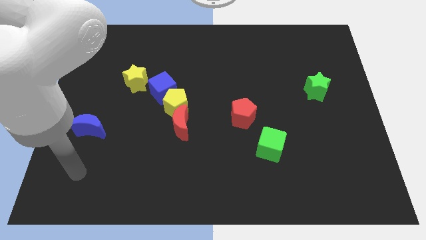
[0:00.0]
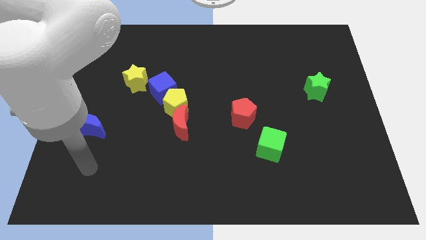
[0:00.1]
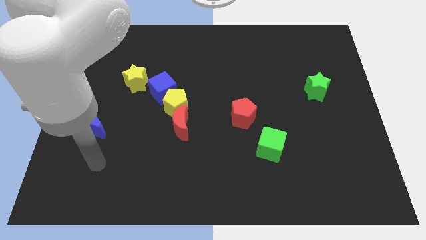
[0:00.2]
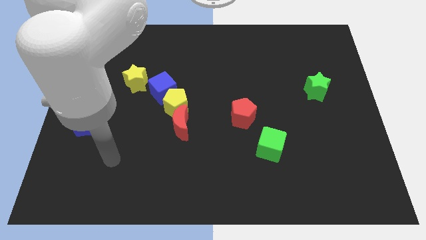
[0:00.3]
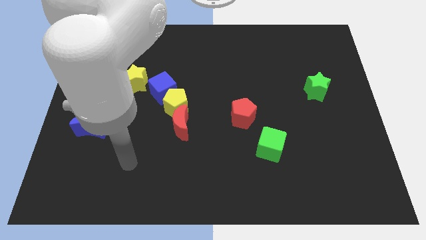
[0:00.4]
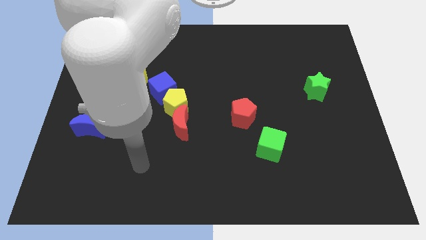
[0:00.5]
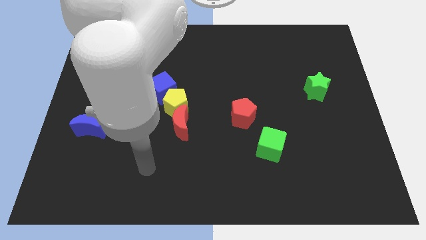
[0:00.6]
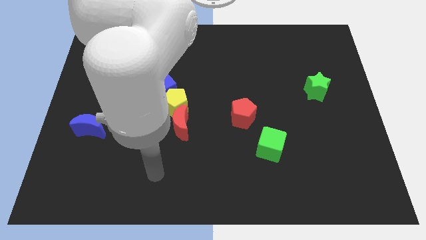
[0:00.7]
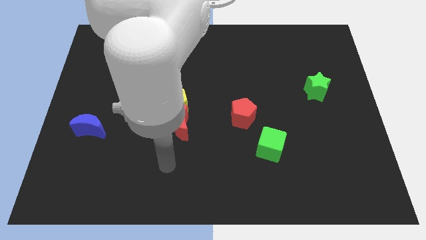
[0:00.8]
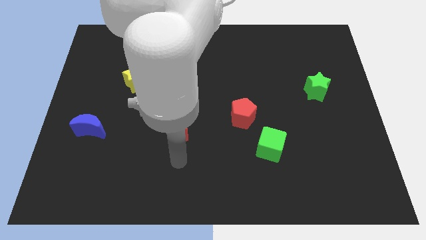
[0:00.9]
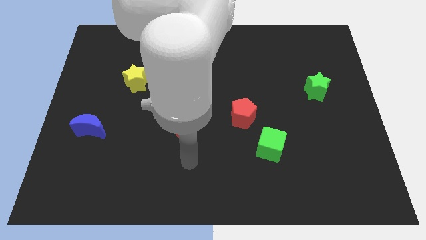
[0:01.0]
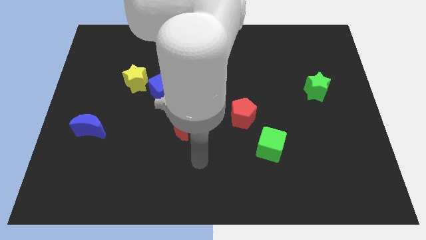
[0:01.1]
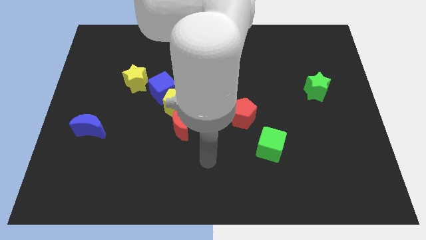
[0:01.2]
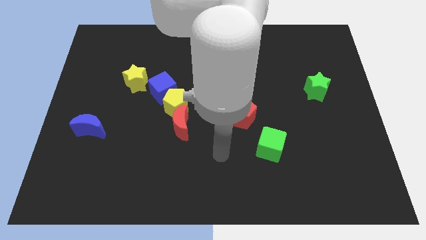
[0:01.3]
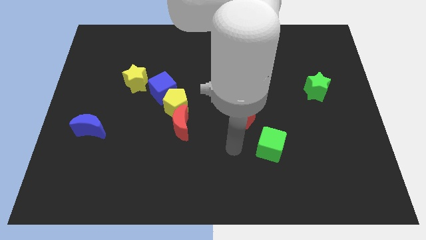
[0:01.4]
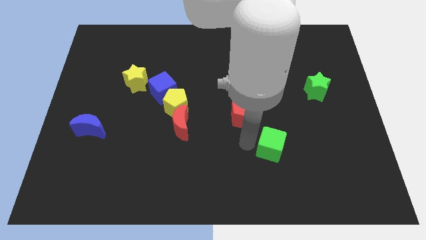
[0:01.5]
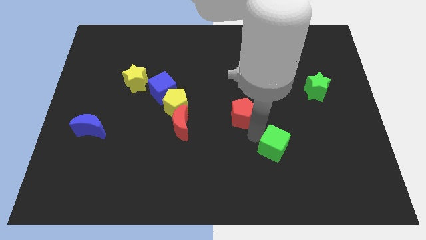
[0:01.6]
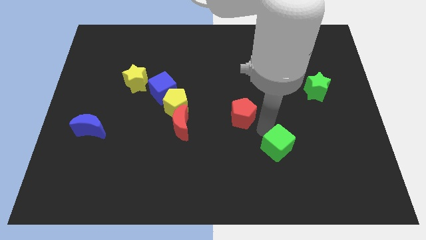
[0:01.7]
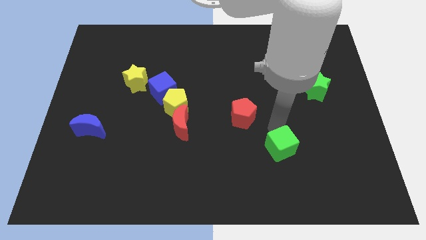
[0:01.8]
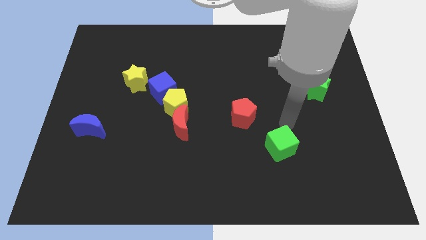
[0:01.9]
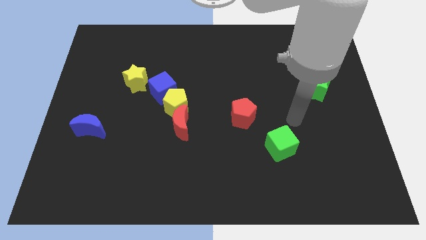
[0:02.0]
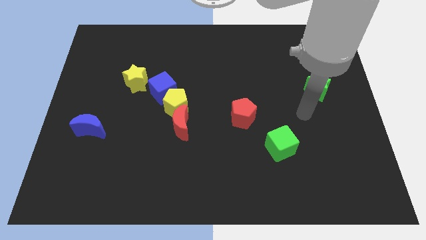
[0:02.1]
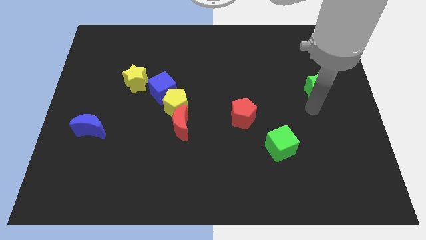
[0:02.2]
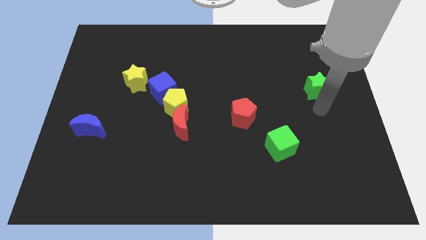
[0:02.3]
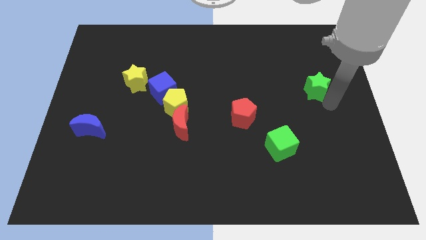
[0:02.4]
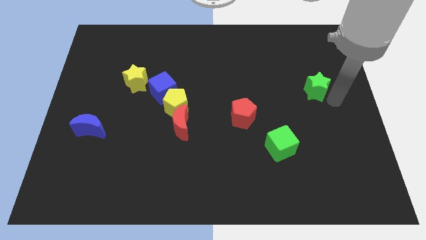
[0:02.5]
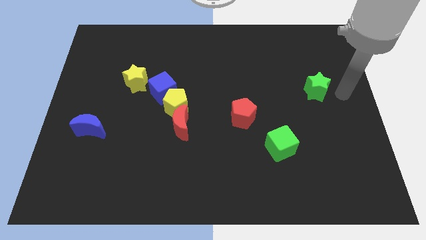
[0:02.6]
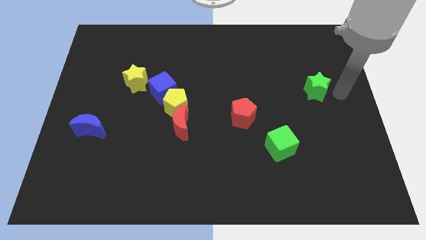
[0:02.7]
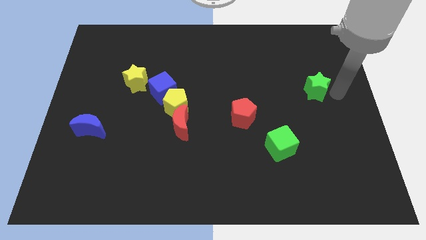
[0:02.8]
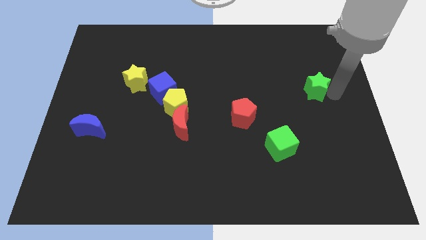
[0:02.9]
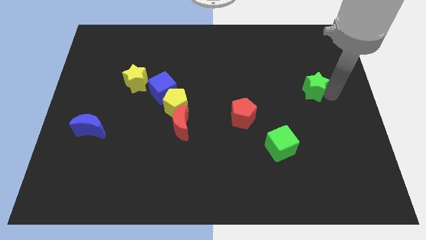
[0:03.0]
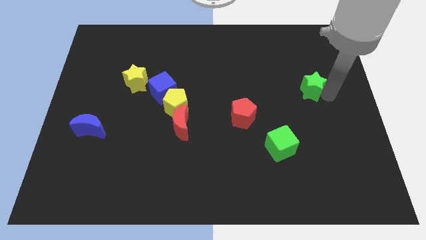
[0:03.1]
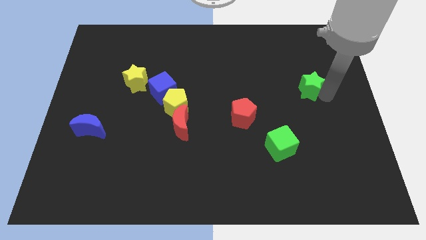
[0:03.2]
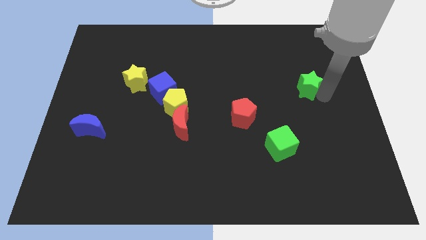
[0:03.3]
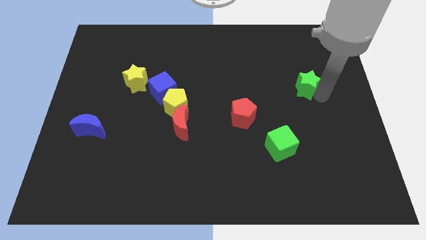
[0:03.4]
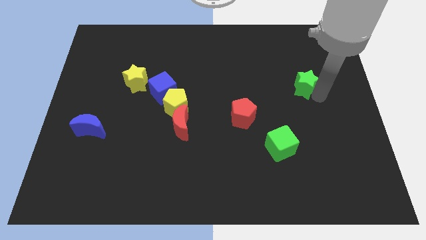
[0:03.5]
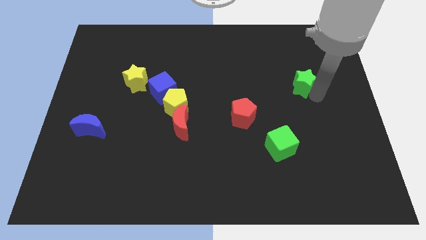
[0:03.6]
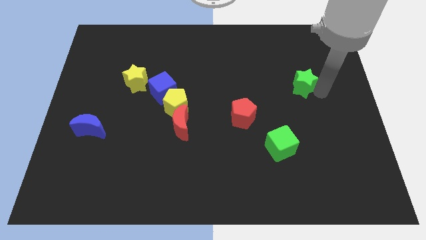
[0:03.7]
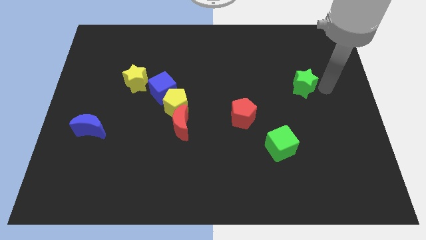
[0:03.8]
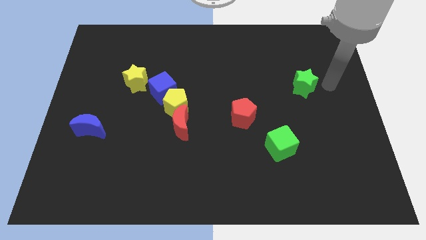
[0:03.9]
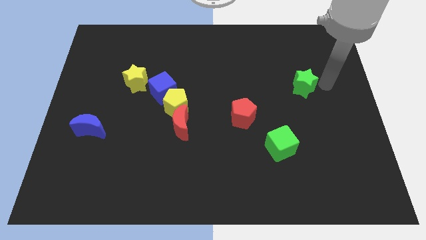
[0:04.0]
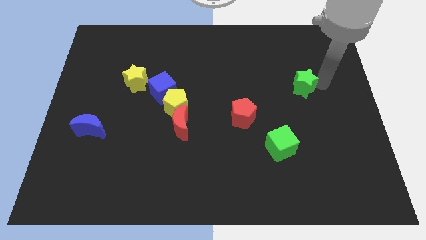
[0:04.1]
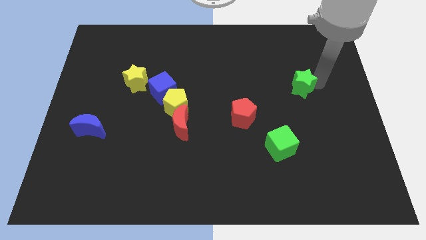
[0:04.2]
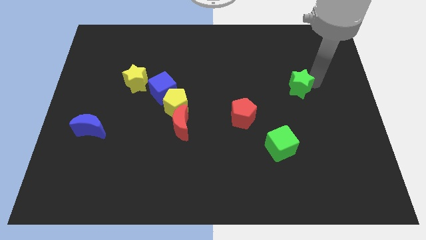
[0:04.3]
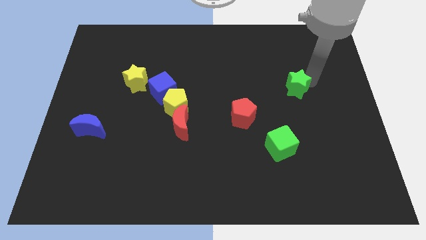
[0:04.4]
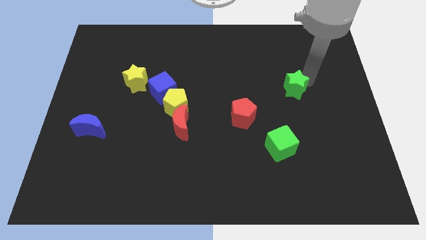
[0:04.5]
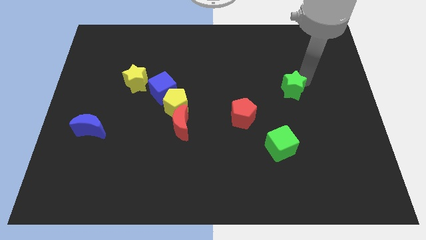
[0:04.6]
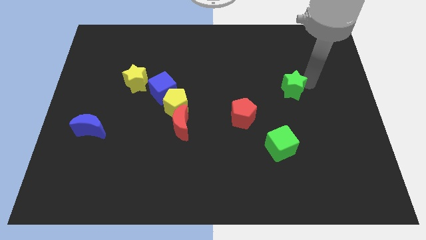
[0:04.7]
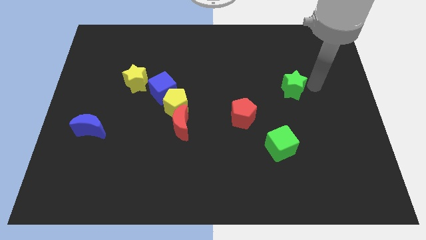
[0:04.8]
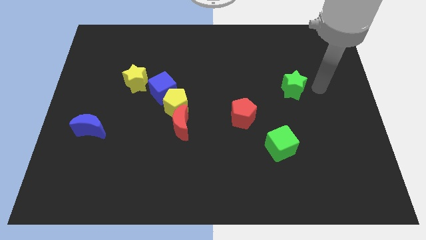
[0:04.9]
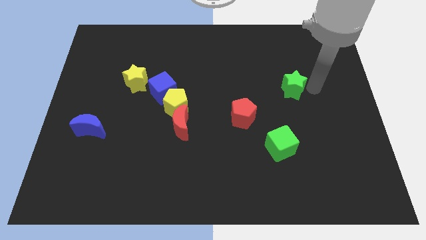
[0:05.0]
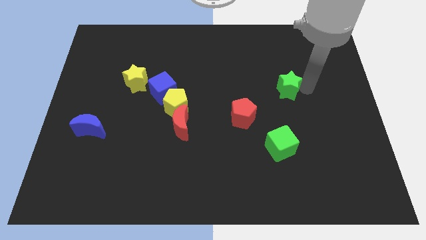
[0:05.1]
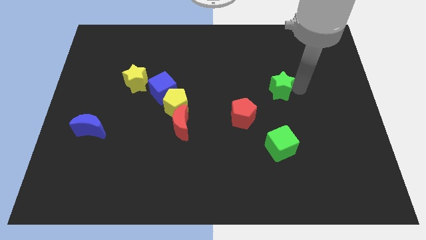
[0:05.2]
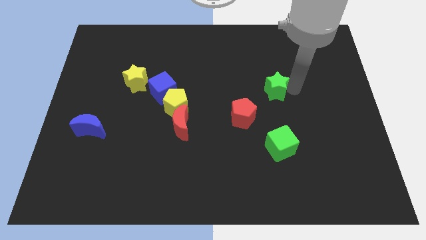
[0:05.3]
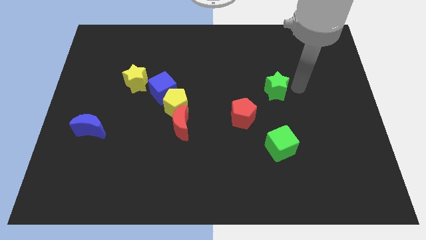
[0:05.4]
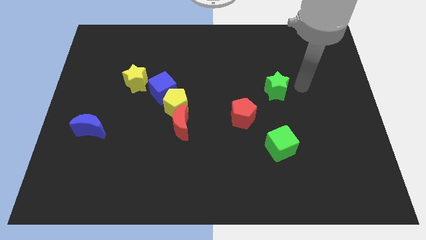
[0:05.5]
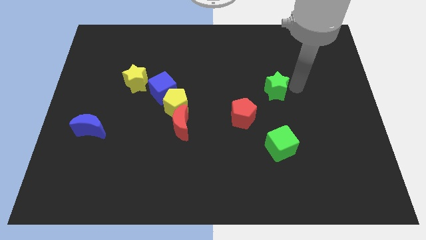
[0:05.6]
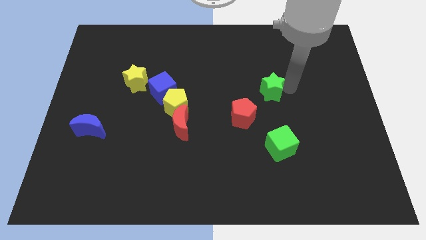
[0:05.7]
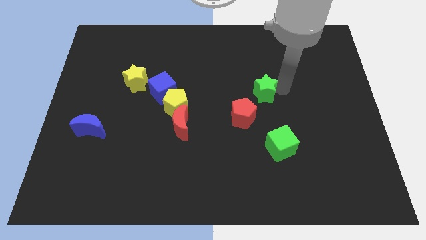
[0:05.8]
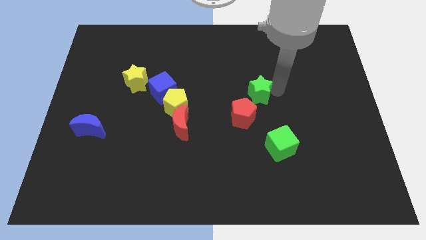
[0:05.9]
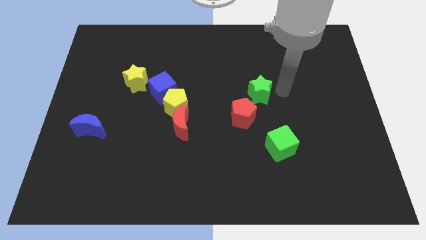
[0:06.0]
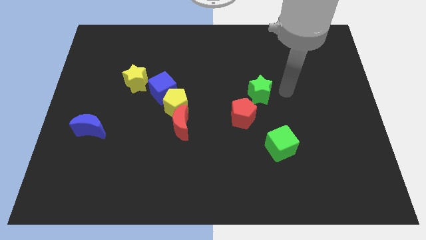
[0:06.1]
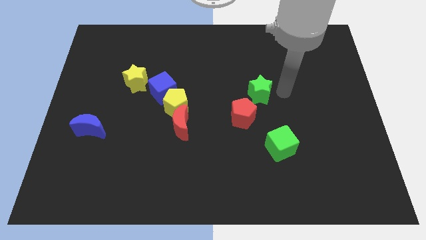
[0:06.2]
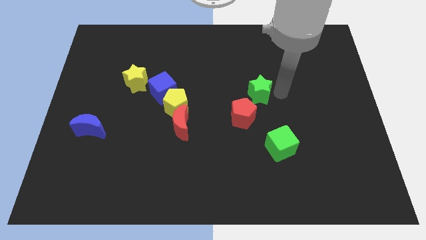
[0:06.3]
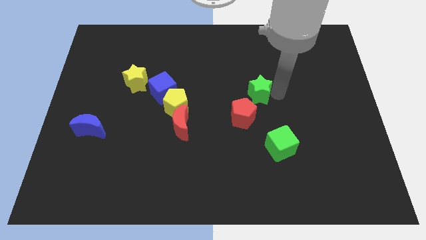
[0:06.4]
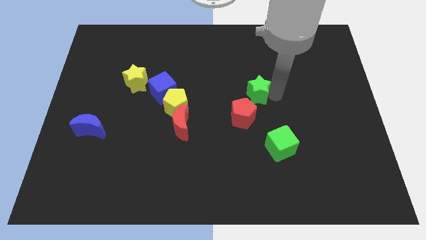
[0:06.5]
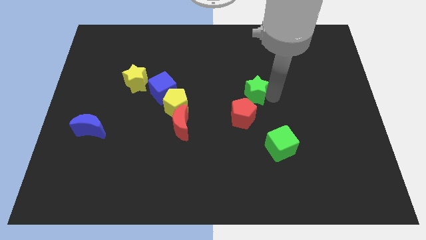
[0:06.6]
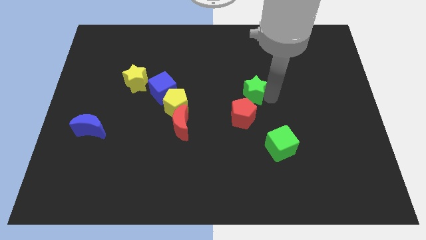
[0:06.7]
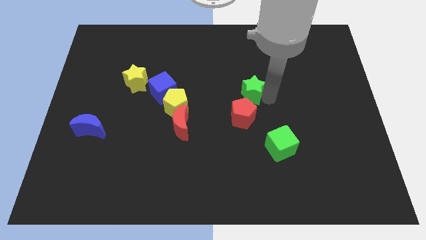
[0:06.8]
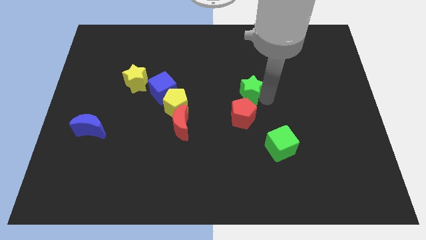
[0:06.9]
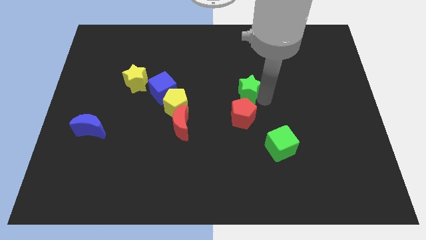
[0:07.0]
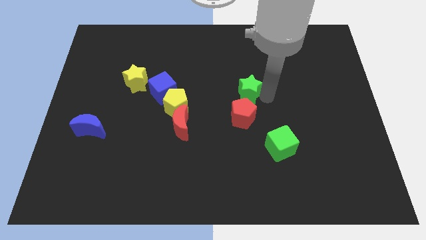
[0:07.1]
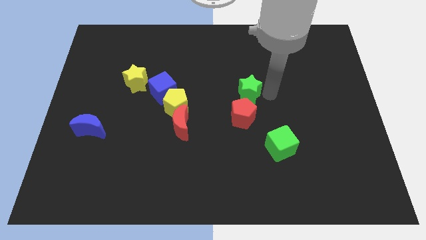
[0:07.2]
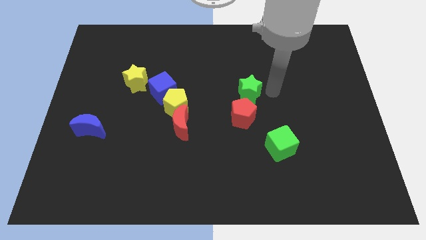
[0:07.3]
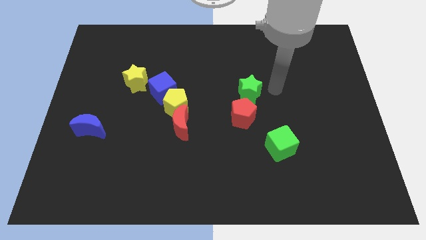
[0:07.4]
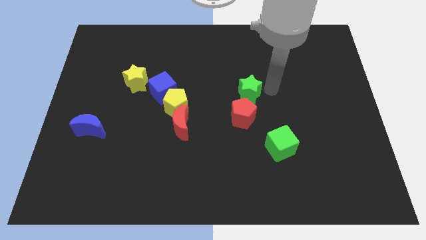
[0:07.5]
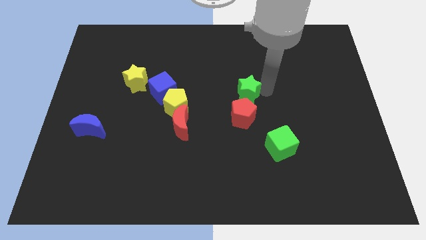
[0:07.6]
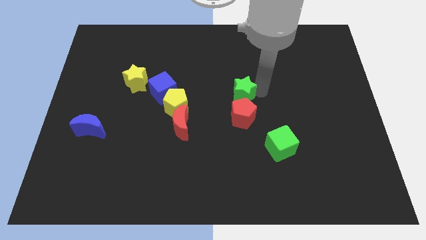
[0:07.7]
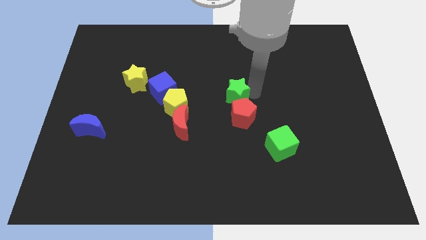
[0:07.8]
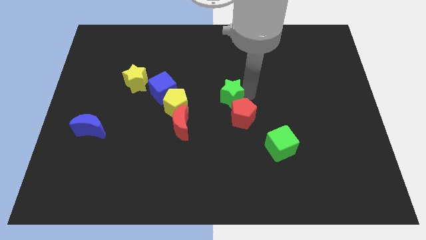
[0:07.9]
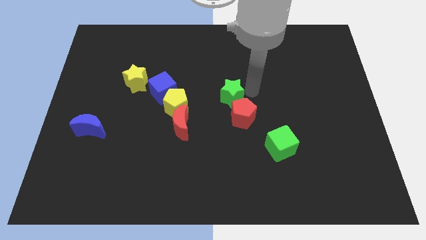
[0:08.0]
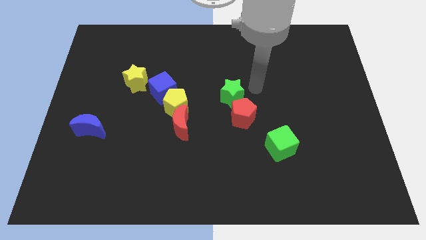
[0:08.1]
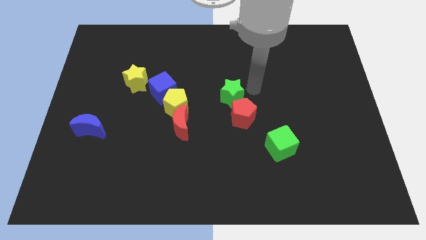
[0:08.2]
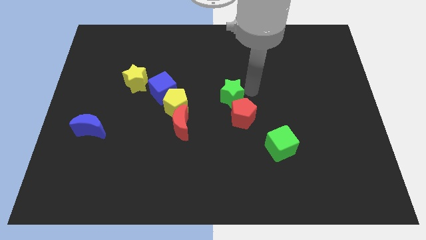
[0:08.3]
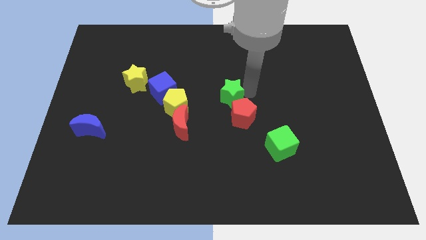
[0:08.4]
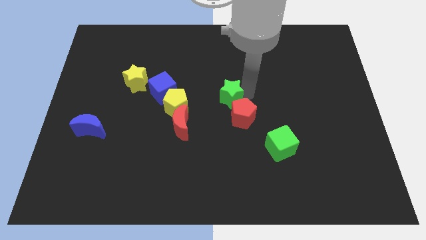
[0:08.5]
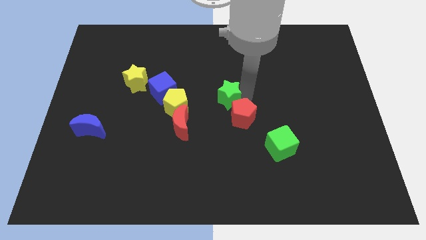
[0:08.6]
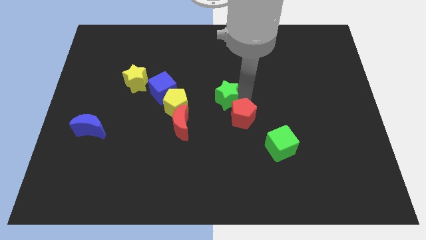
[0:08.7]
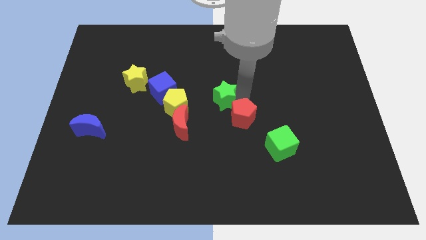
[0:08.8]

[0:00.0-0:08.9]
put the green star to the top right side of the red moon
